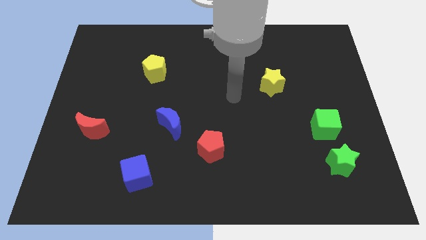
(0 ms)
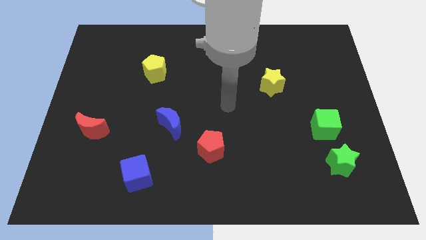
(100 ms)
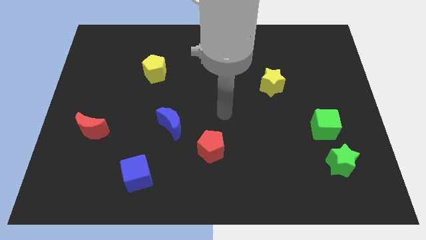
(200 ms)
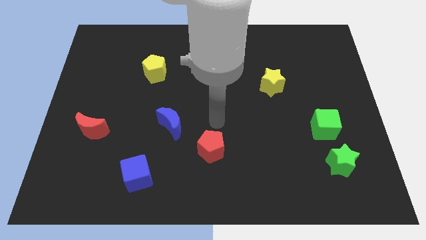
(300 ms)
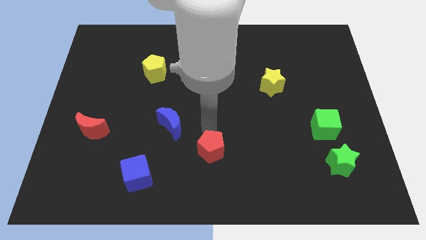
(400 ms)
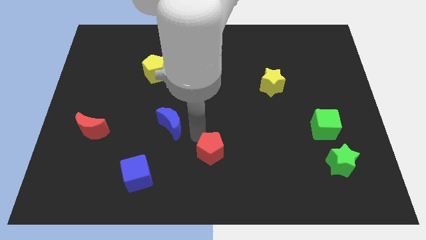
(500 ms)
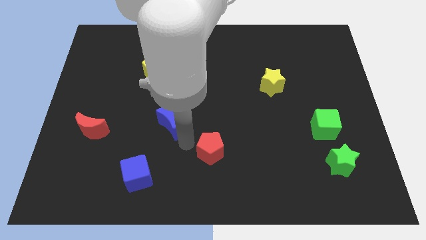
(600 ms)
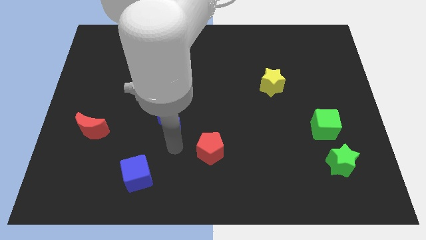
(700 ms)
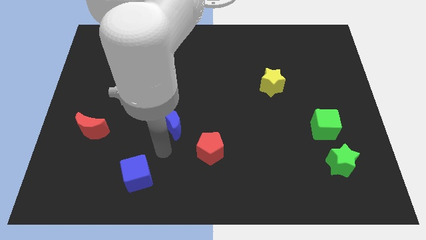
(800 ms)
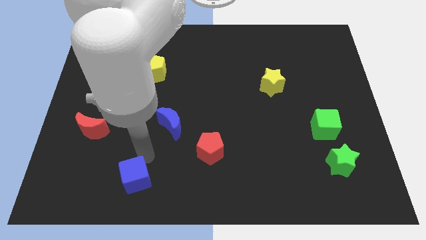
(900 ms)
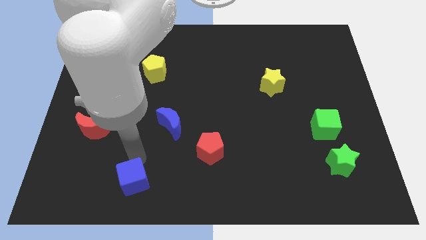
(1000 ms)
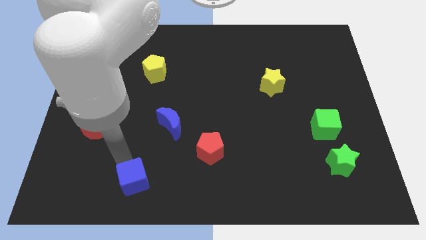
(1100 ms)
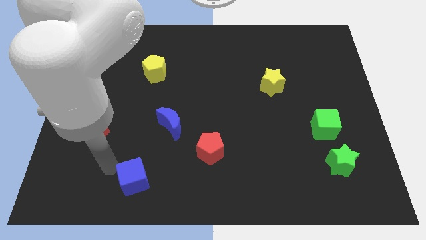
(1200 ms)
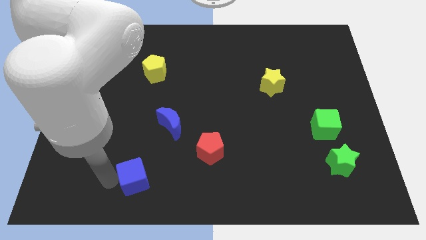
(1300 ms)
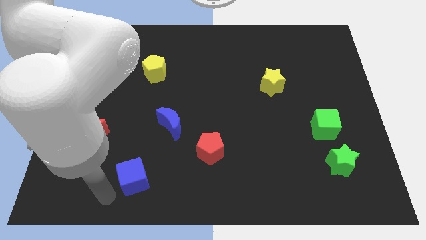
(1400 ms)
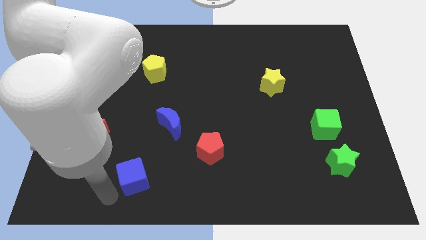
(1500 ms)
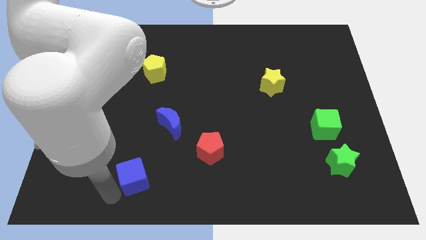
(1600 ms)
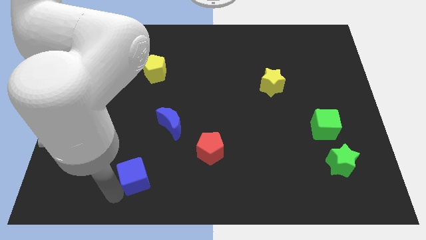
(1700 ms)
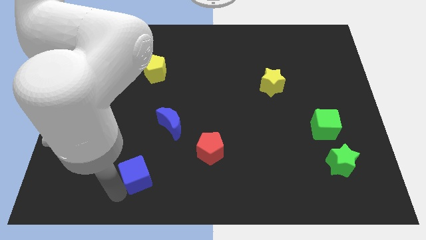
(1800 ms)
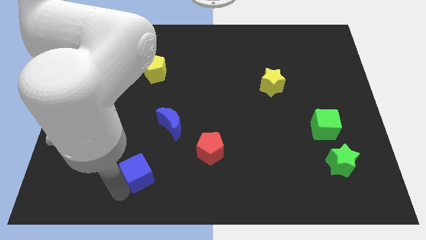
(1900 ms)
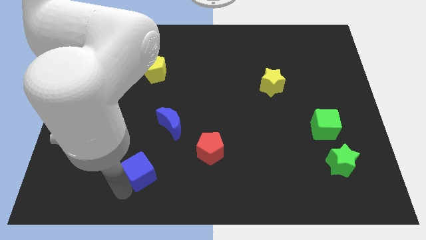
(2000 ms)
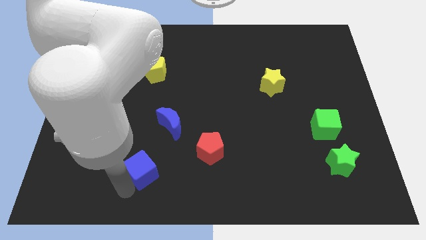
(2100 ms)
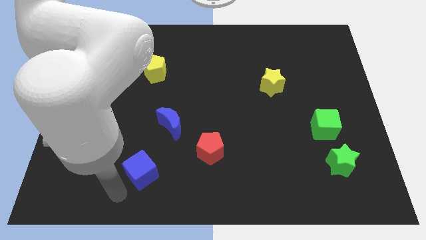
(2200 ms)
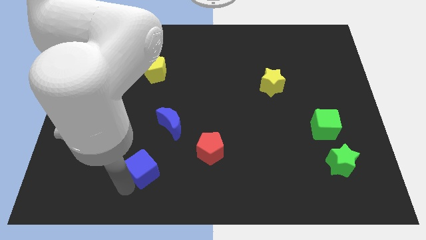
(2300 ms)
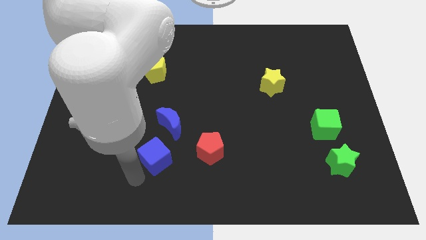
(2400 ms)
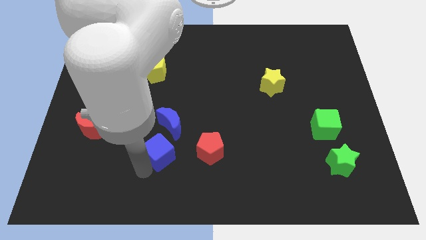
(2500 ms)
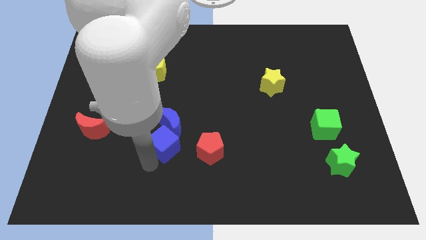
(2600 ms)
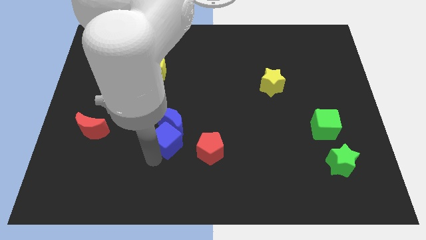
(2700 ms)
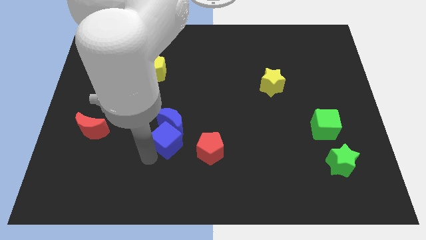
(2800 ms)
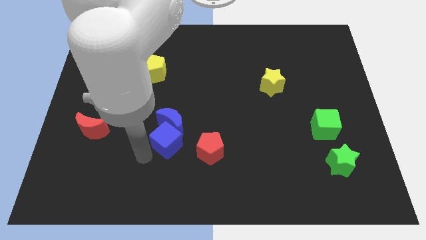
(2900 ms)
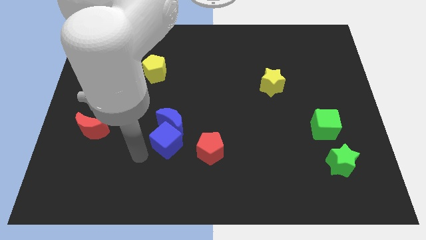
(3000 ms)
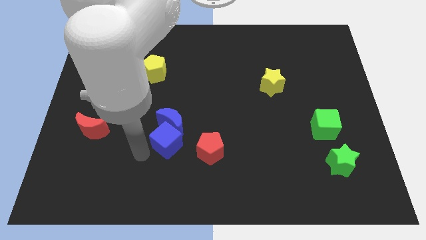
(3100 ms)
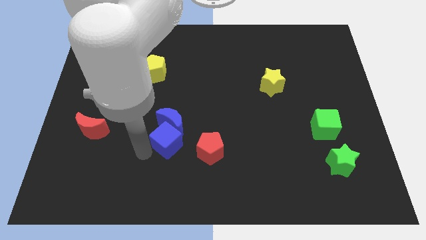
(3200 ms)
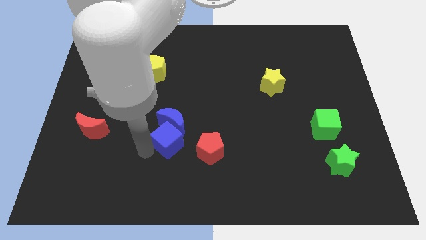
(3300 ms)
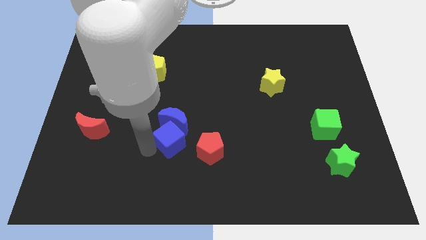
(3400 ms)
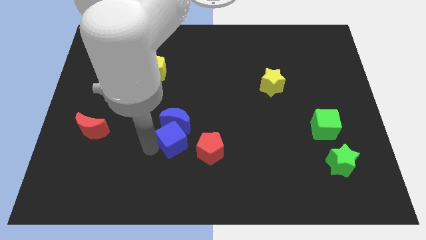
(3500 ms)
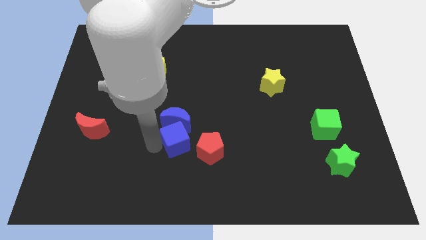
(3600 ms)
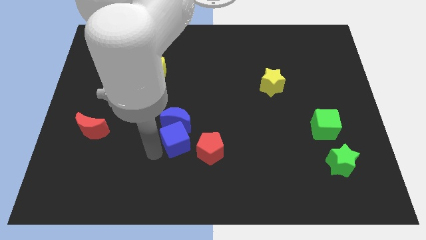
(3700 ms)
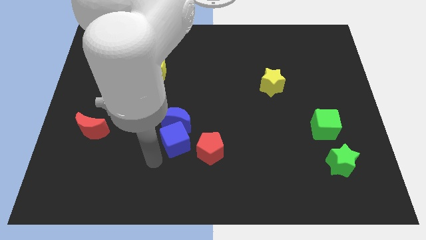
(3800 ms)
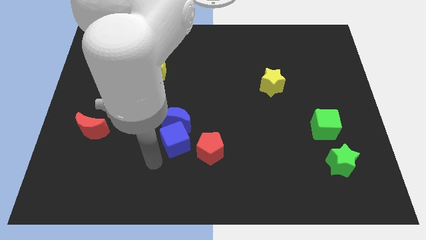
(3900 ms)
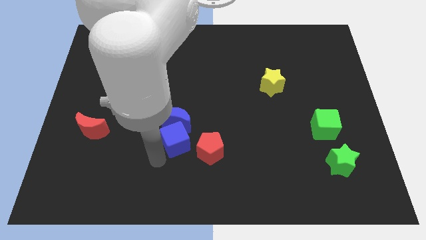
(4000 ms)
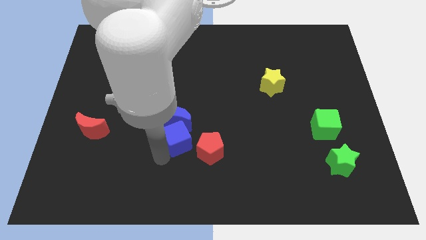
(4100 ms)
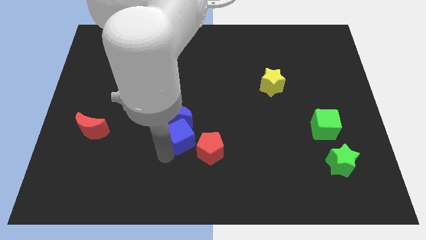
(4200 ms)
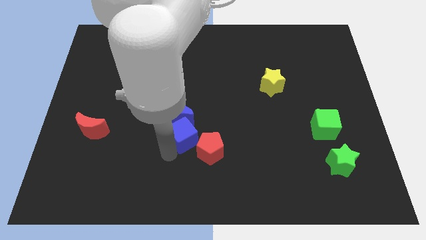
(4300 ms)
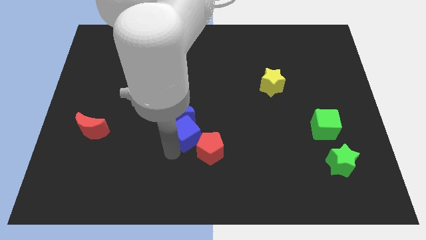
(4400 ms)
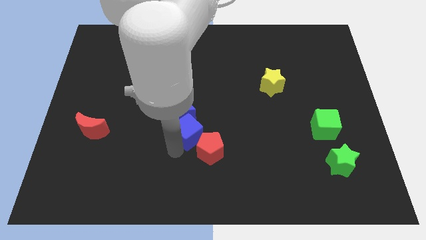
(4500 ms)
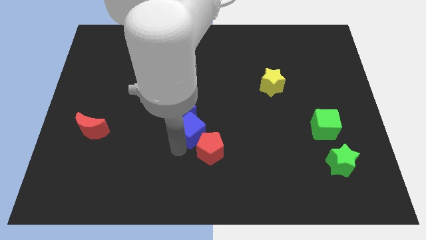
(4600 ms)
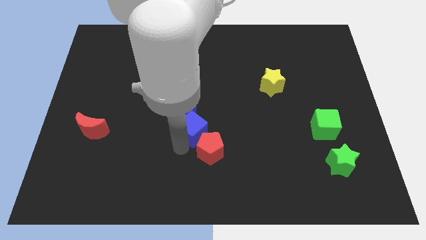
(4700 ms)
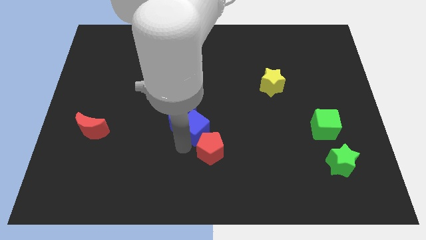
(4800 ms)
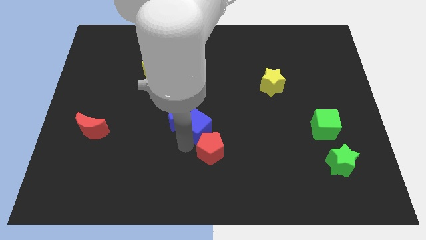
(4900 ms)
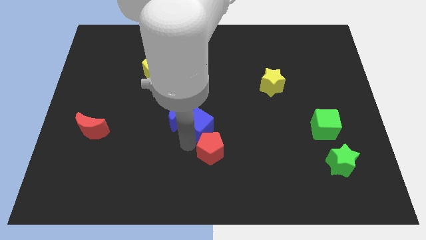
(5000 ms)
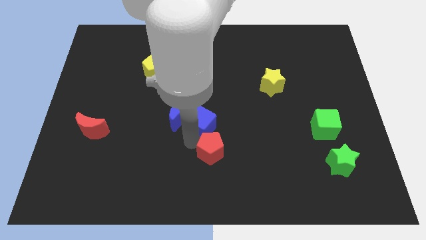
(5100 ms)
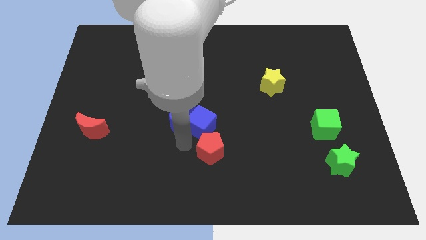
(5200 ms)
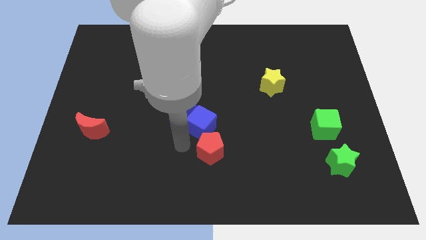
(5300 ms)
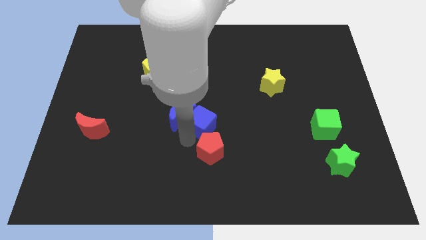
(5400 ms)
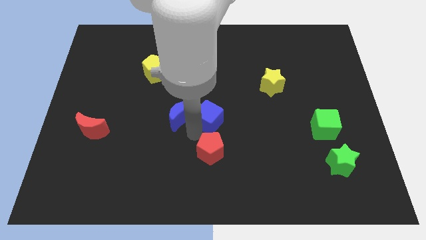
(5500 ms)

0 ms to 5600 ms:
move the blue cube upwards and then to the right

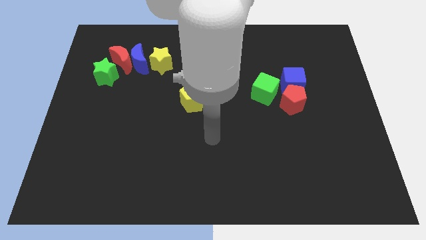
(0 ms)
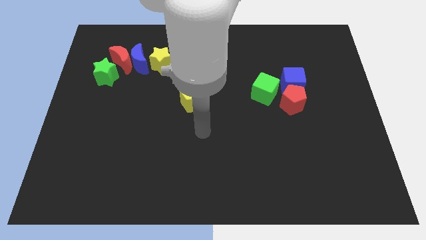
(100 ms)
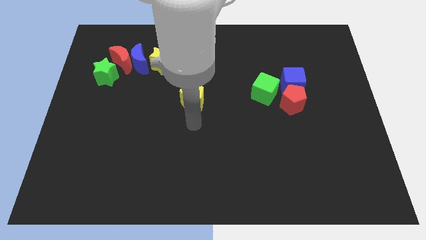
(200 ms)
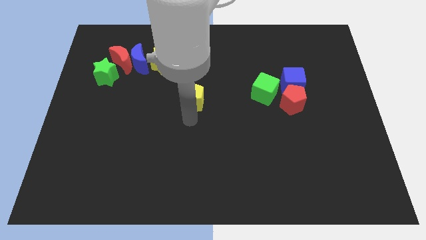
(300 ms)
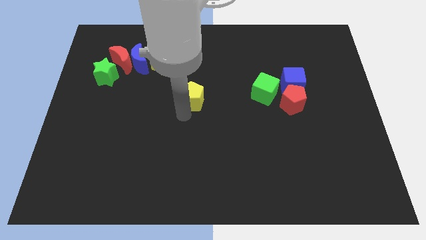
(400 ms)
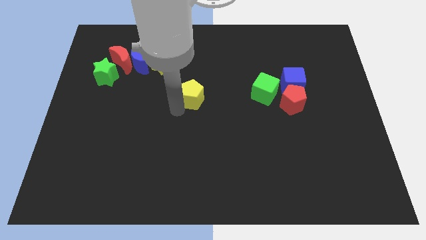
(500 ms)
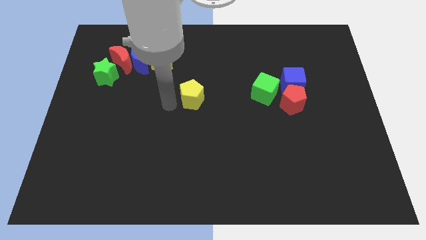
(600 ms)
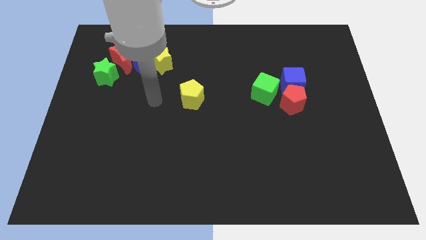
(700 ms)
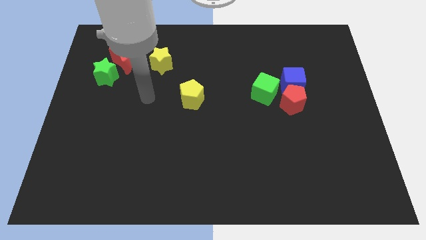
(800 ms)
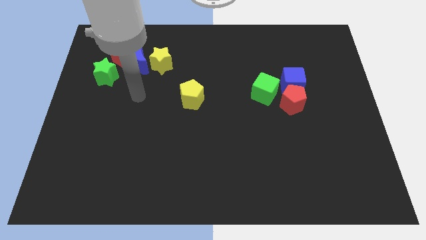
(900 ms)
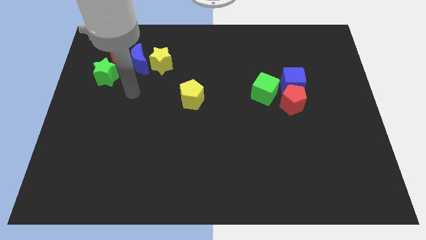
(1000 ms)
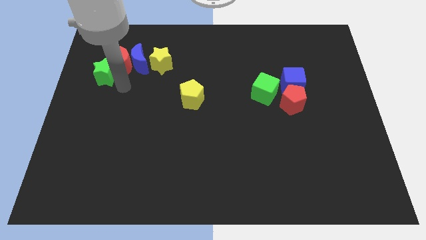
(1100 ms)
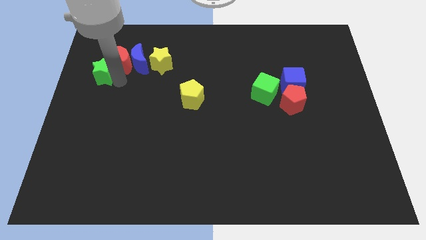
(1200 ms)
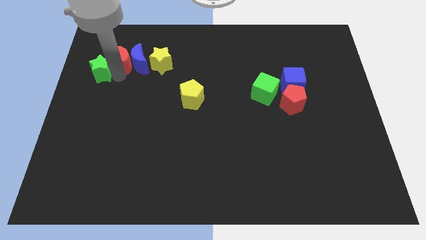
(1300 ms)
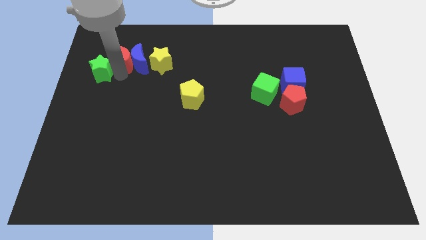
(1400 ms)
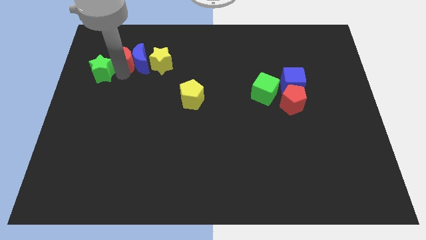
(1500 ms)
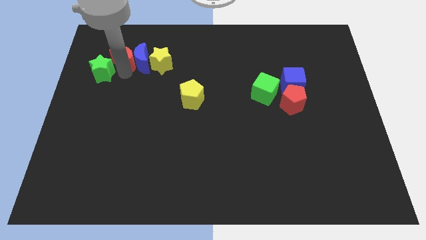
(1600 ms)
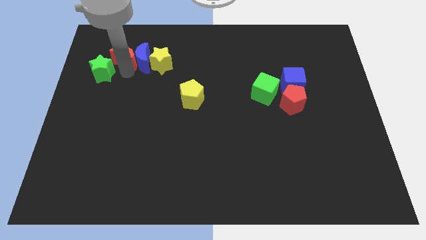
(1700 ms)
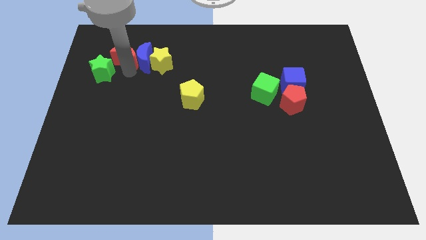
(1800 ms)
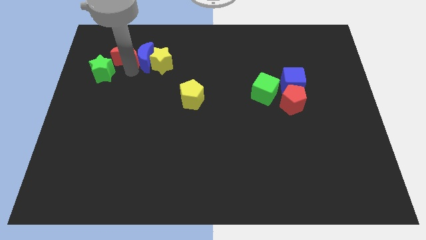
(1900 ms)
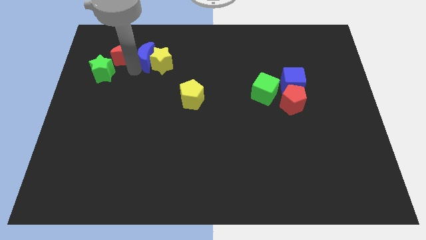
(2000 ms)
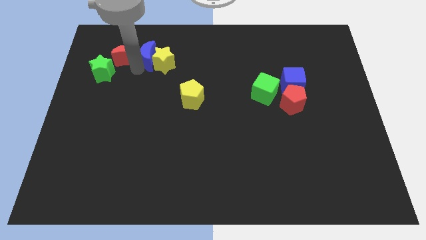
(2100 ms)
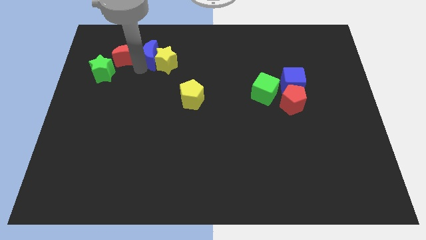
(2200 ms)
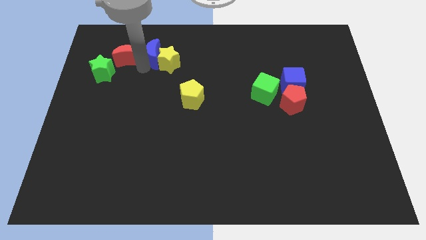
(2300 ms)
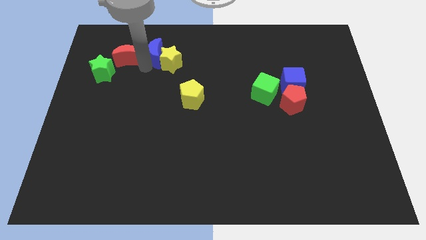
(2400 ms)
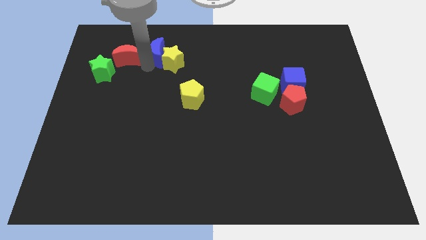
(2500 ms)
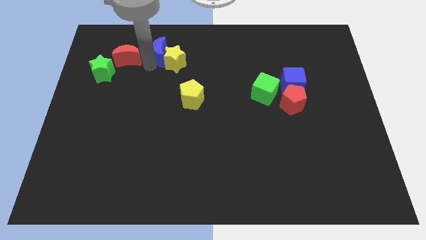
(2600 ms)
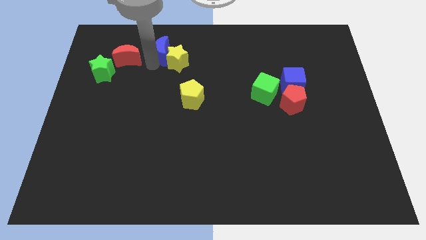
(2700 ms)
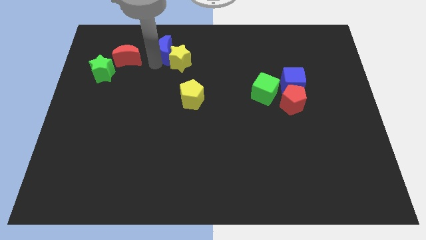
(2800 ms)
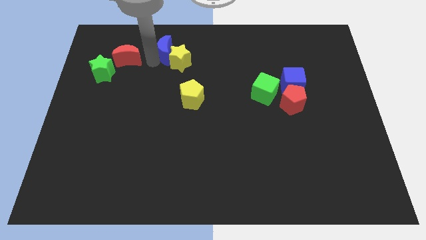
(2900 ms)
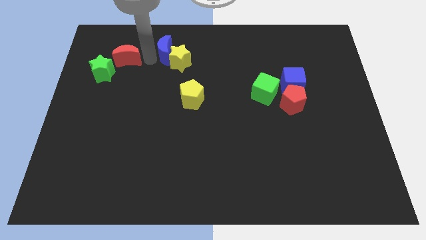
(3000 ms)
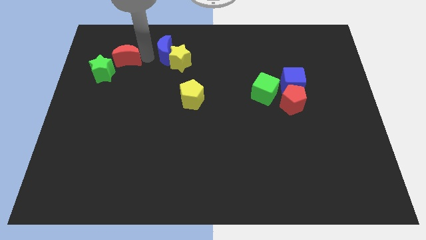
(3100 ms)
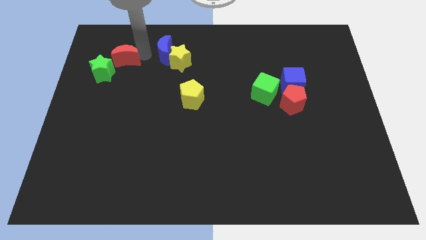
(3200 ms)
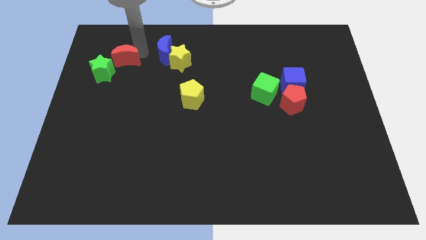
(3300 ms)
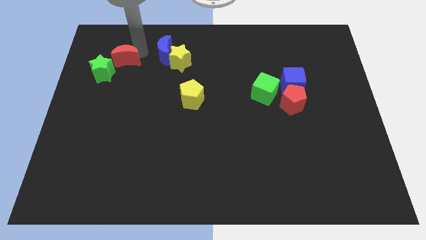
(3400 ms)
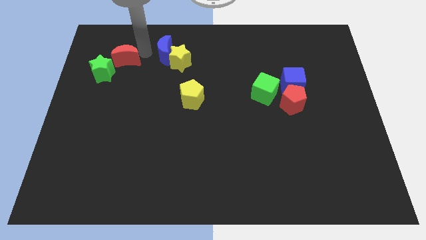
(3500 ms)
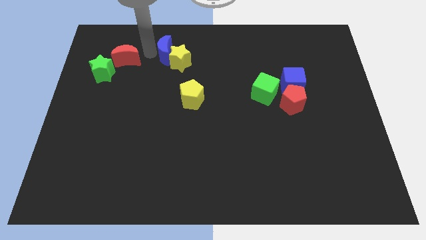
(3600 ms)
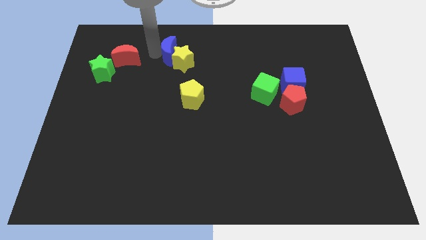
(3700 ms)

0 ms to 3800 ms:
move the blue moon to the right a little
